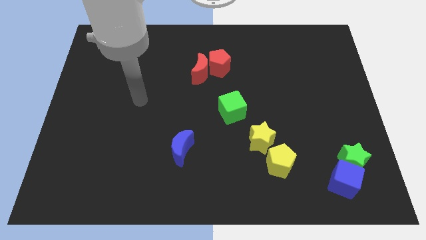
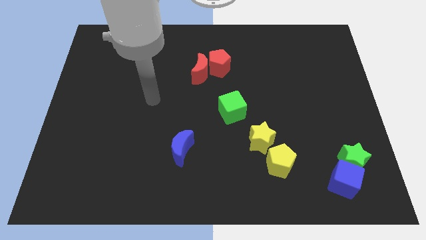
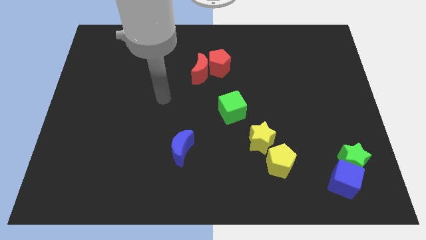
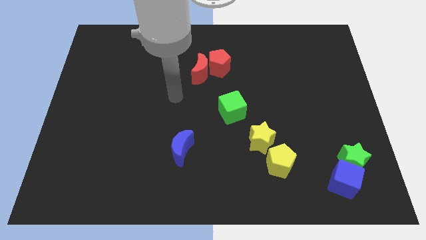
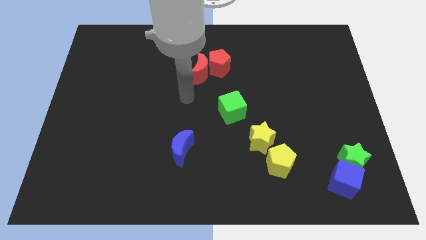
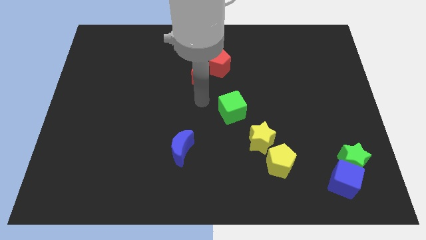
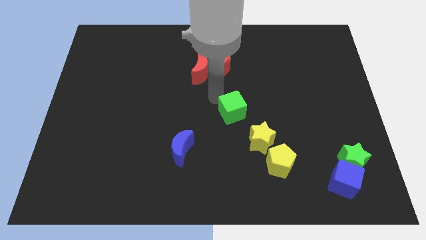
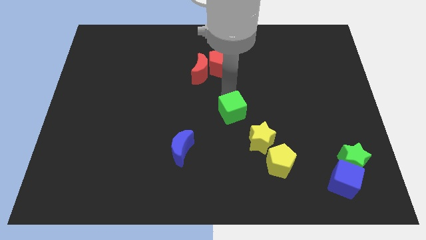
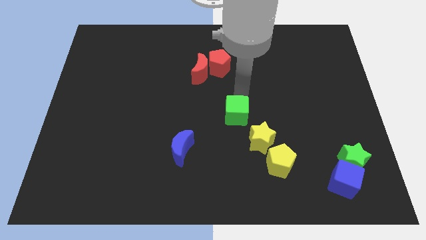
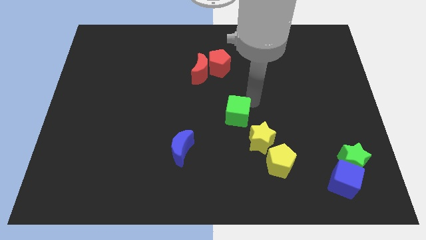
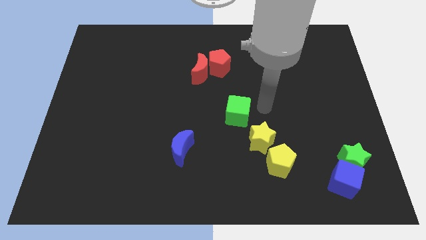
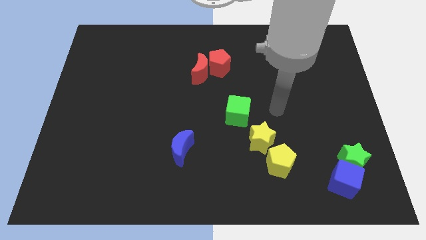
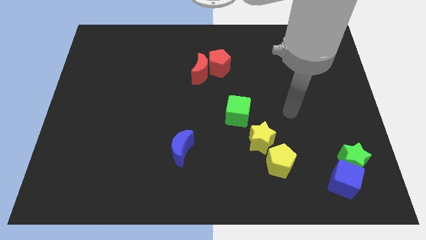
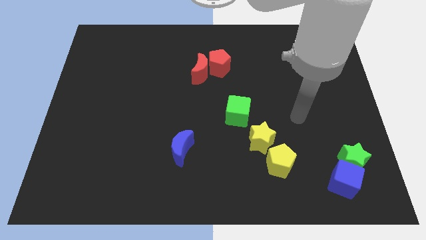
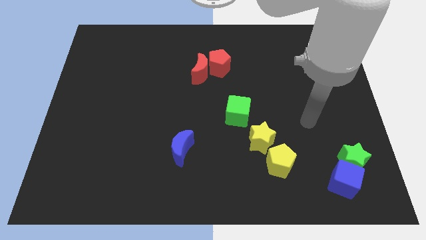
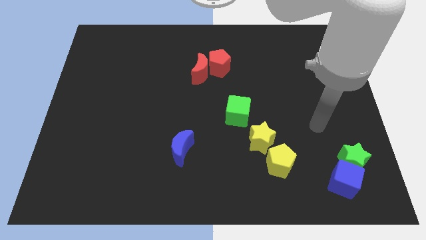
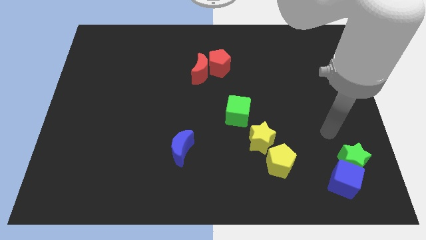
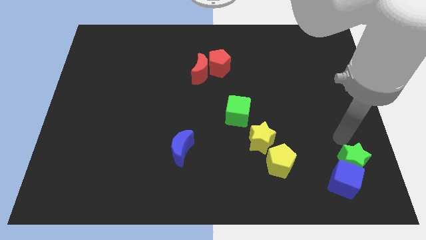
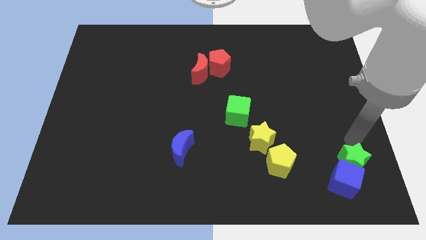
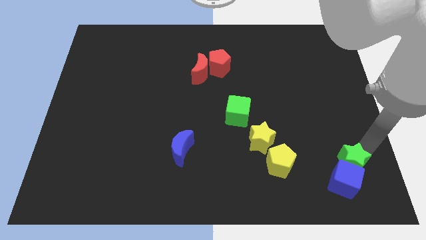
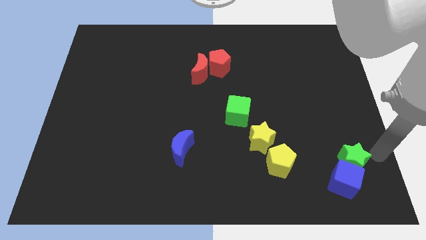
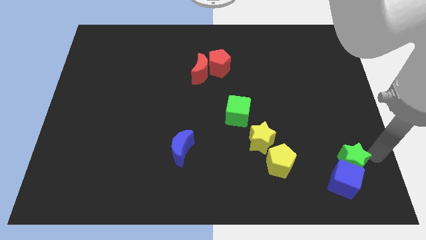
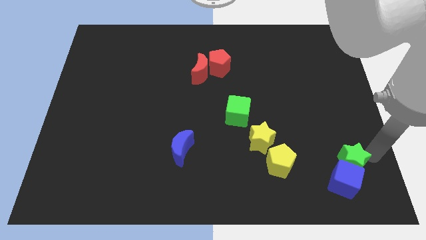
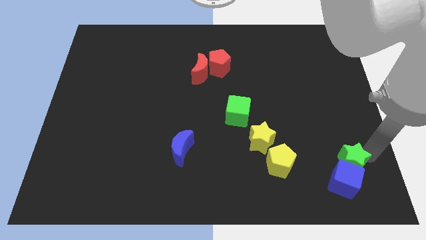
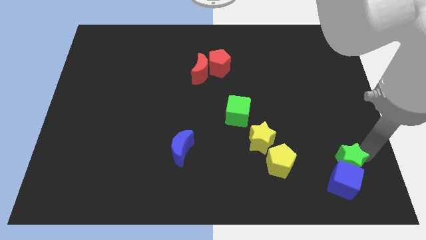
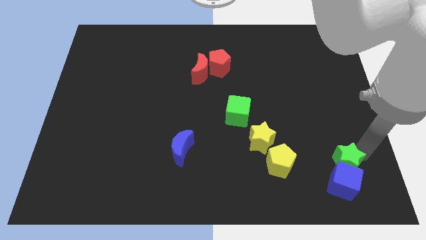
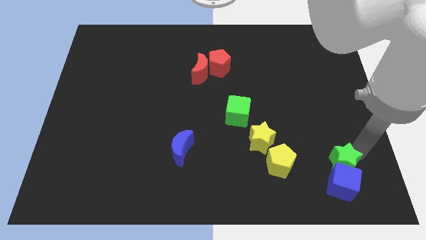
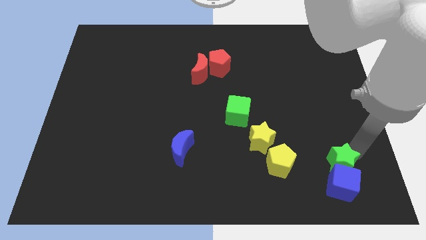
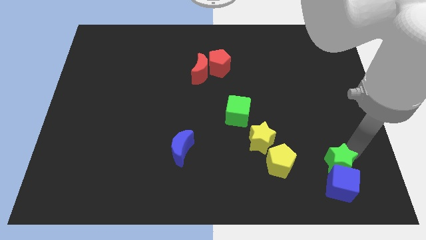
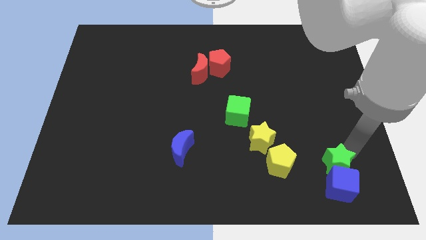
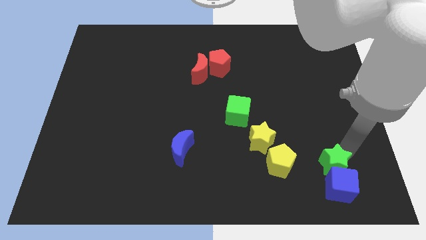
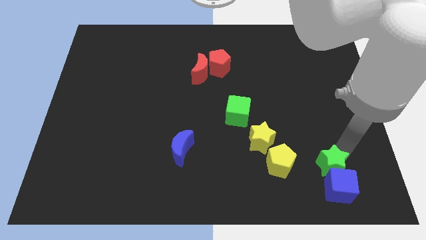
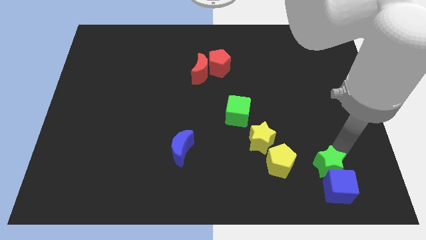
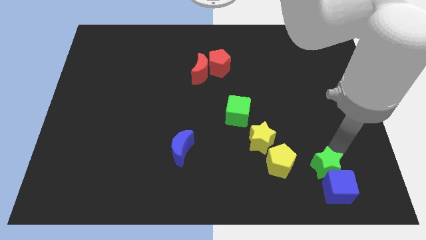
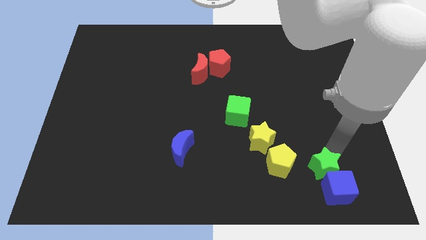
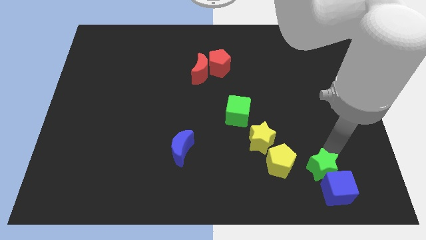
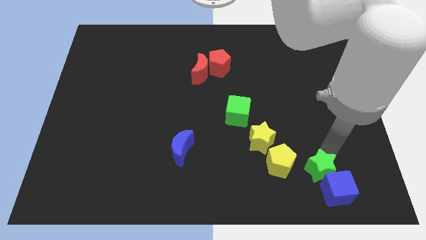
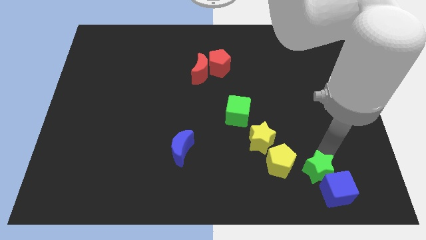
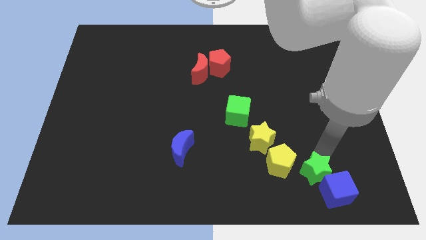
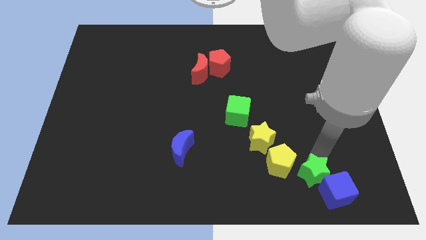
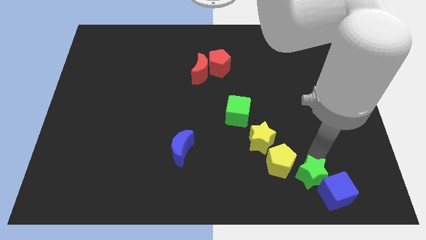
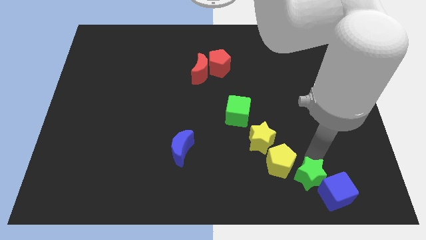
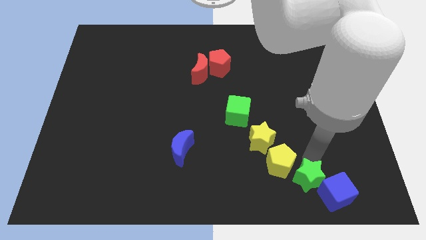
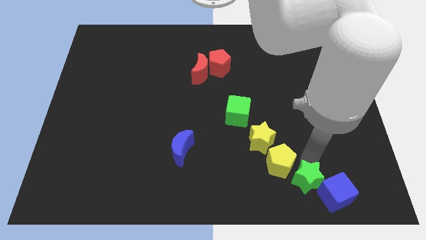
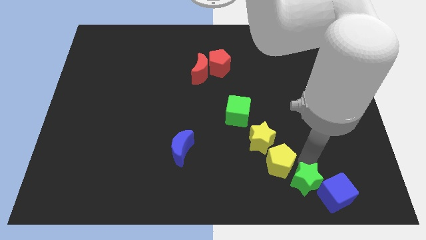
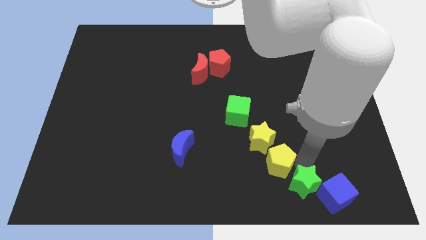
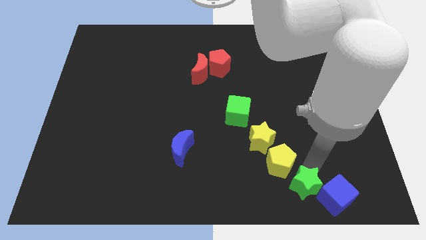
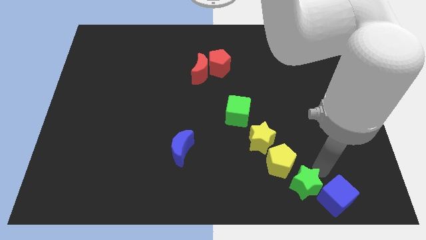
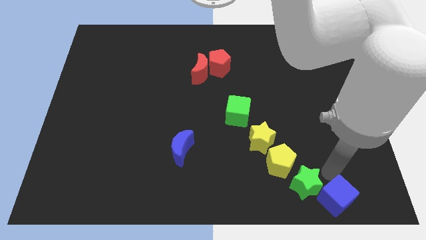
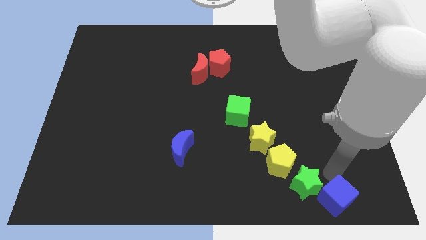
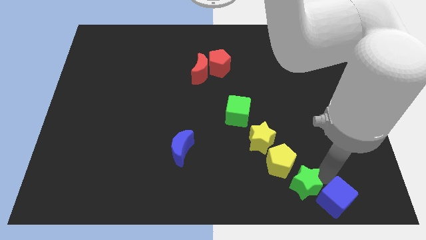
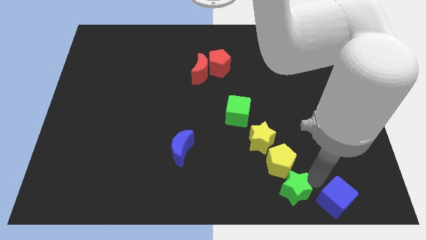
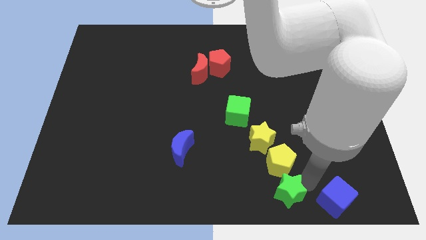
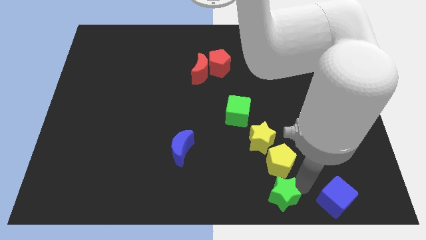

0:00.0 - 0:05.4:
put the green star to the bottom side
